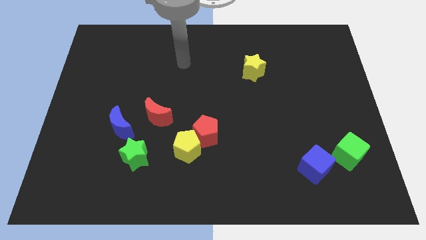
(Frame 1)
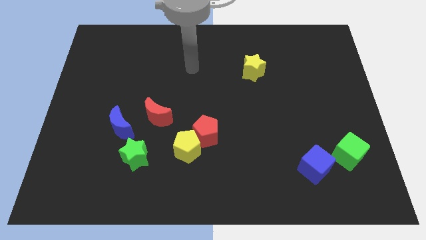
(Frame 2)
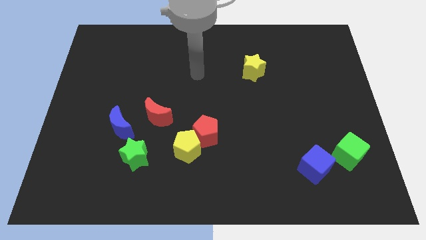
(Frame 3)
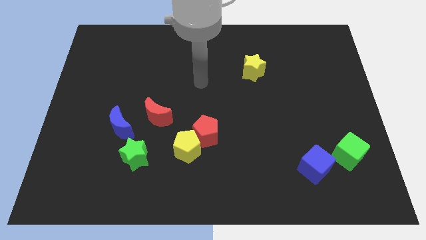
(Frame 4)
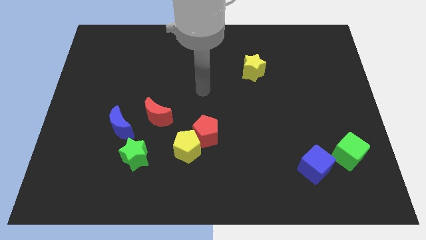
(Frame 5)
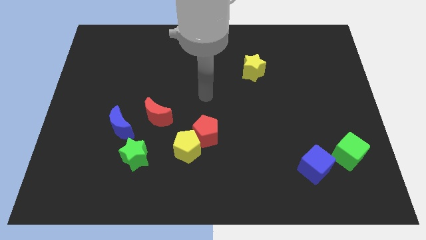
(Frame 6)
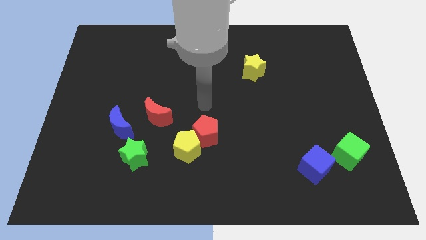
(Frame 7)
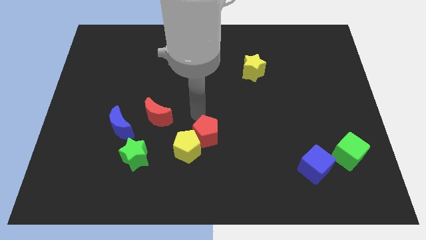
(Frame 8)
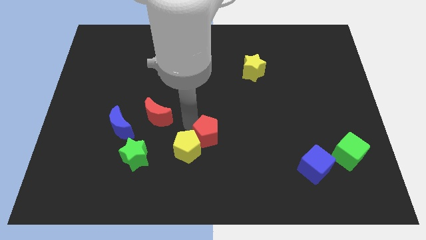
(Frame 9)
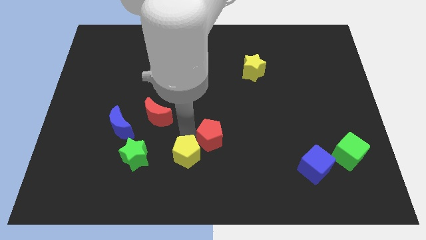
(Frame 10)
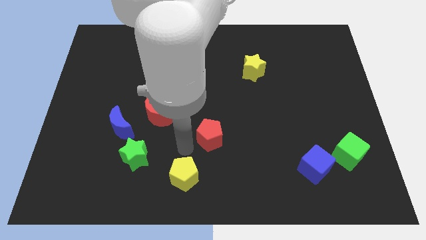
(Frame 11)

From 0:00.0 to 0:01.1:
separate the red pentagon from the yellow pentagon

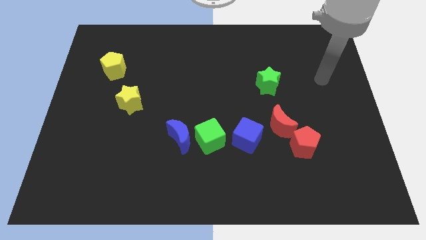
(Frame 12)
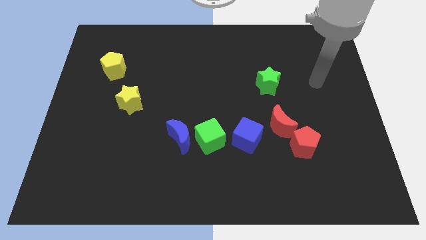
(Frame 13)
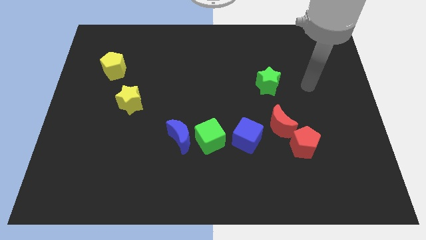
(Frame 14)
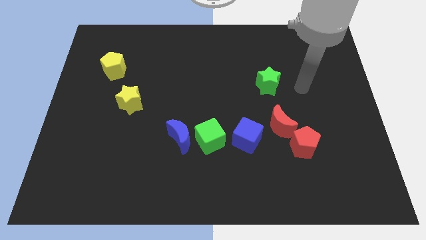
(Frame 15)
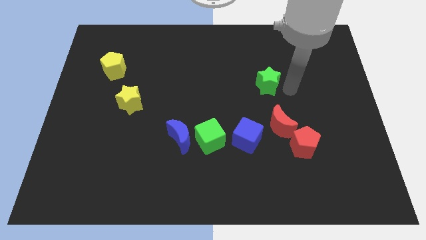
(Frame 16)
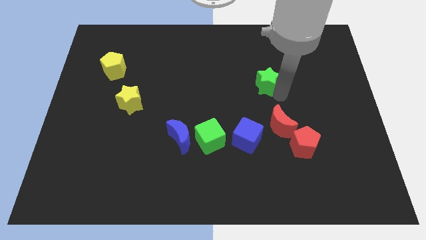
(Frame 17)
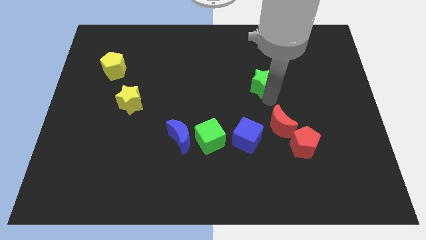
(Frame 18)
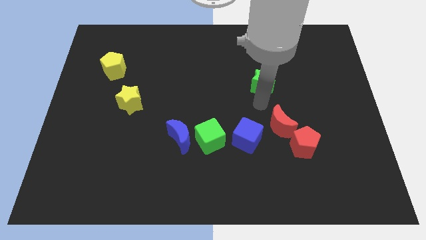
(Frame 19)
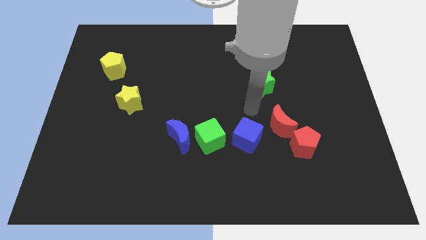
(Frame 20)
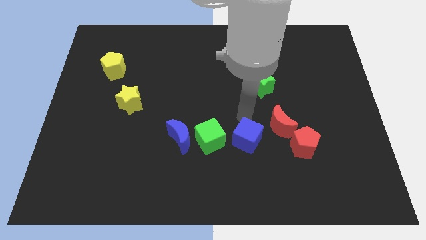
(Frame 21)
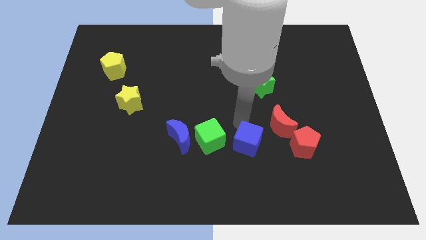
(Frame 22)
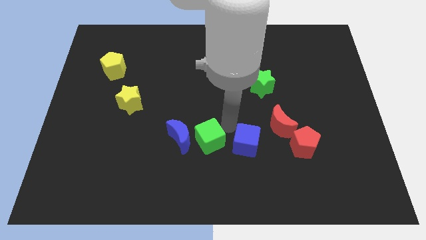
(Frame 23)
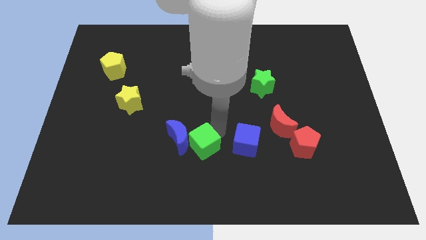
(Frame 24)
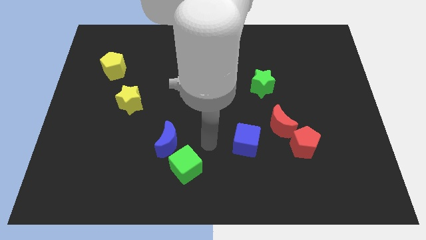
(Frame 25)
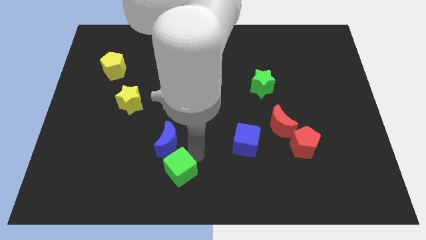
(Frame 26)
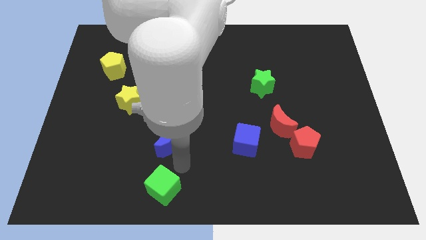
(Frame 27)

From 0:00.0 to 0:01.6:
pull the blue moon apart from the green cube

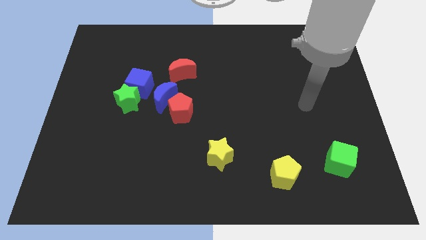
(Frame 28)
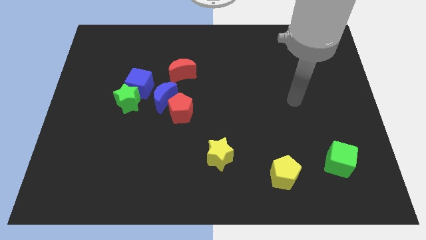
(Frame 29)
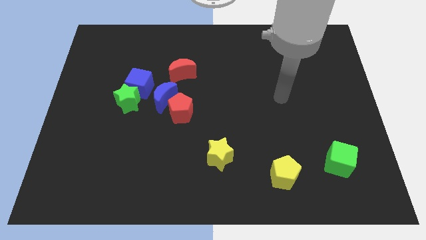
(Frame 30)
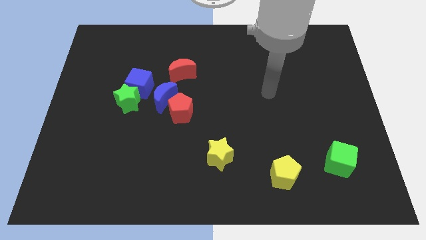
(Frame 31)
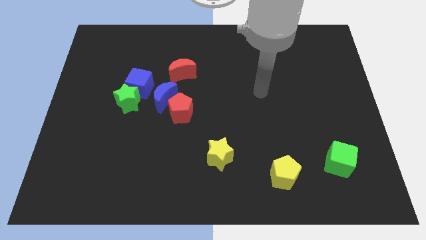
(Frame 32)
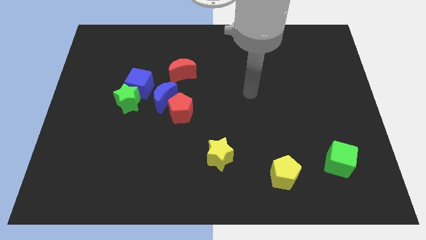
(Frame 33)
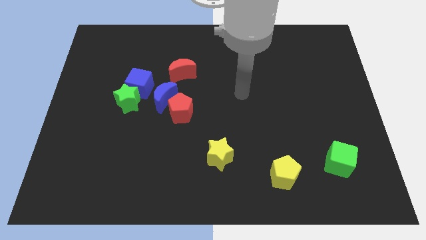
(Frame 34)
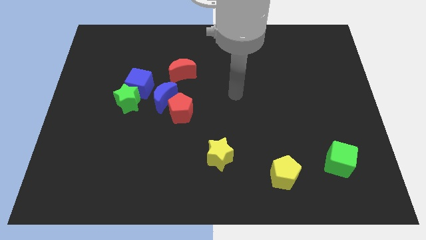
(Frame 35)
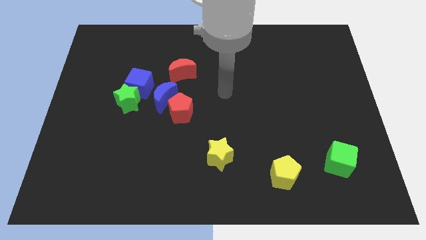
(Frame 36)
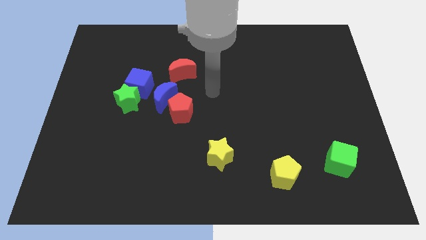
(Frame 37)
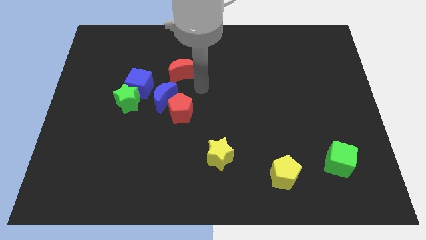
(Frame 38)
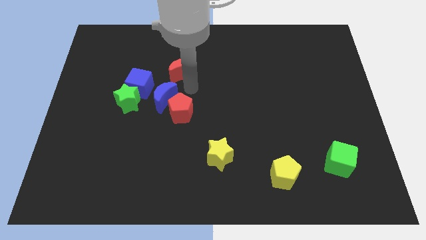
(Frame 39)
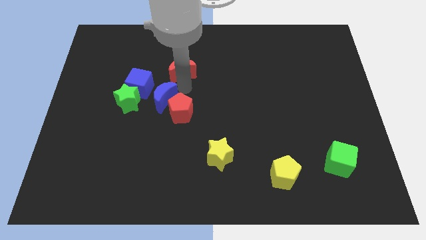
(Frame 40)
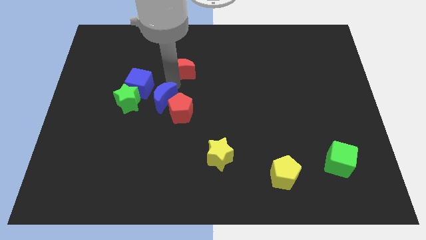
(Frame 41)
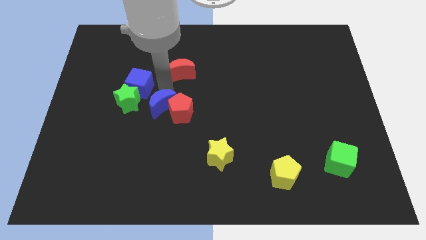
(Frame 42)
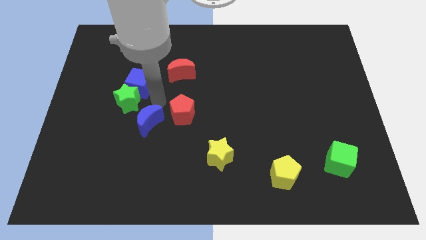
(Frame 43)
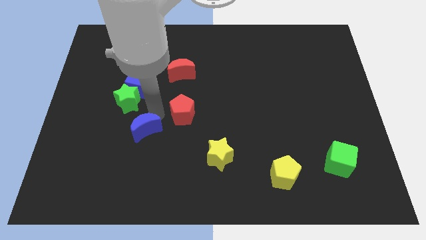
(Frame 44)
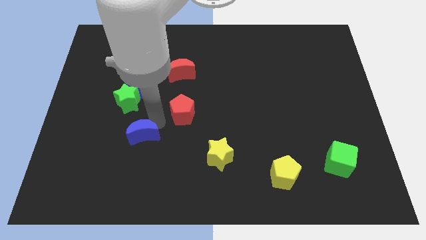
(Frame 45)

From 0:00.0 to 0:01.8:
separate the red pentagon from the blue moon

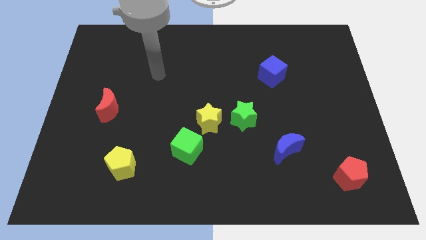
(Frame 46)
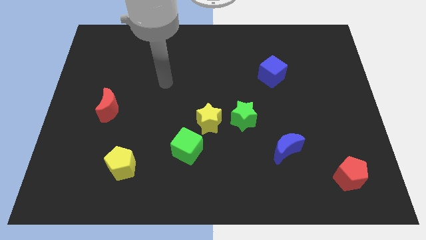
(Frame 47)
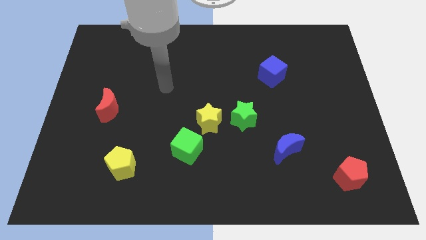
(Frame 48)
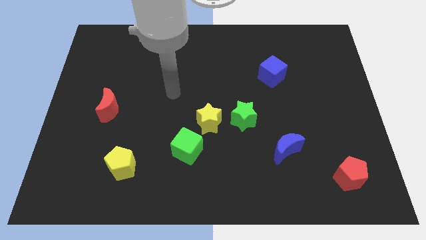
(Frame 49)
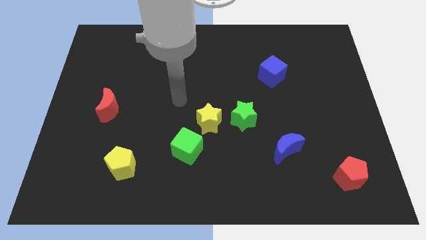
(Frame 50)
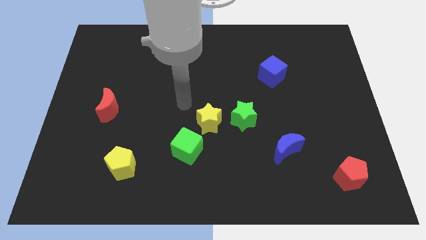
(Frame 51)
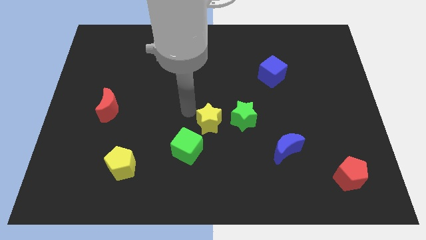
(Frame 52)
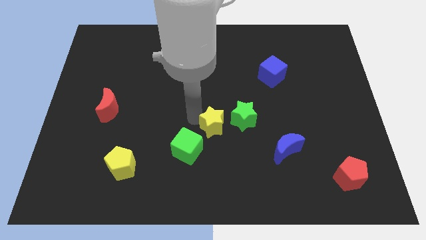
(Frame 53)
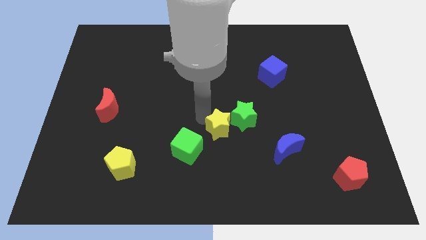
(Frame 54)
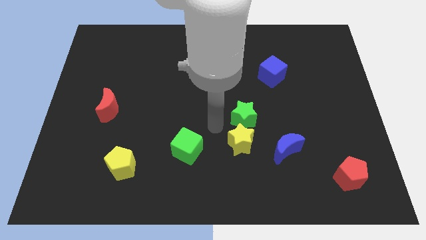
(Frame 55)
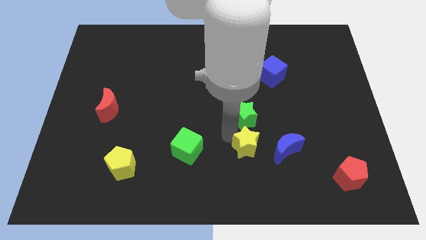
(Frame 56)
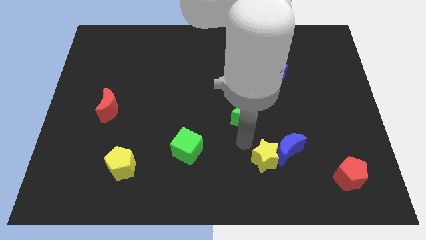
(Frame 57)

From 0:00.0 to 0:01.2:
move the green star away from the yellow star

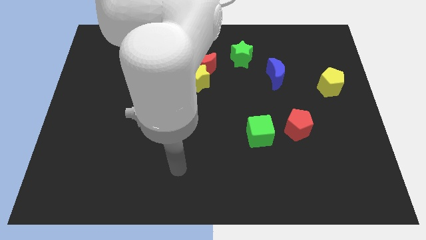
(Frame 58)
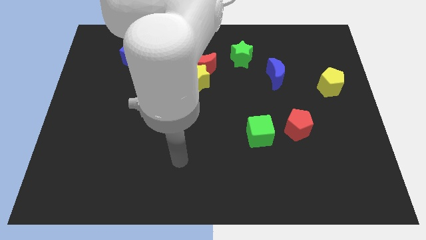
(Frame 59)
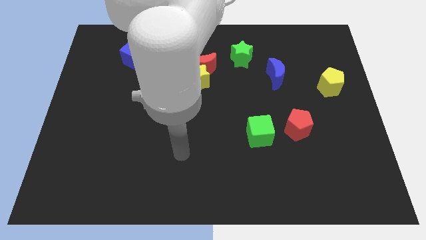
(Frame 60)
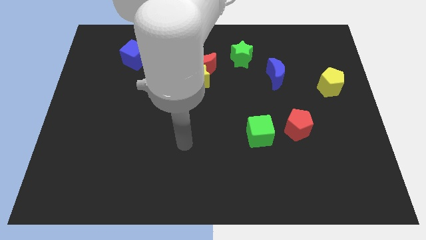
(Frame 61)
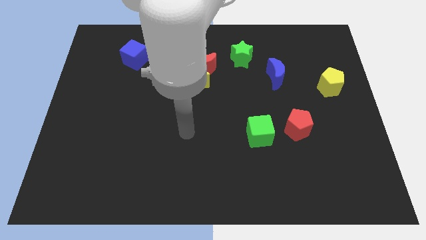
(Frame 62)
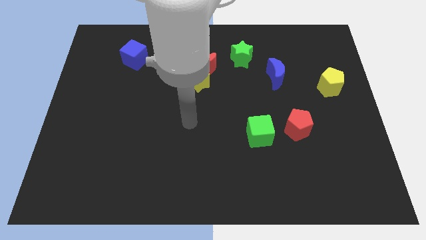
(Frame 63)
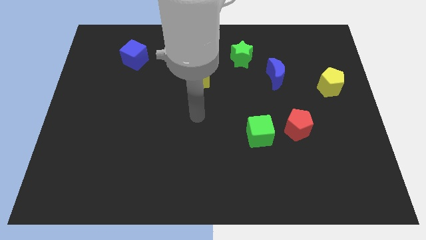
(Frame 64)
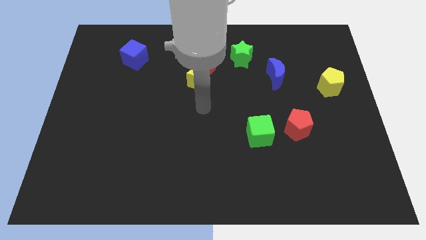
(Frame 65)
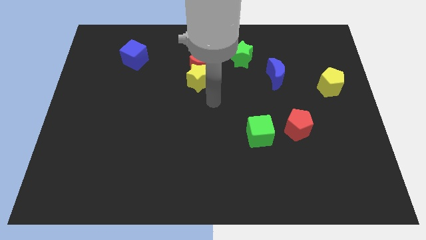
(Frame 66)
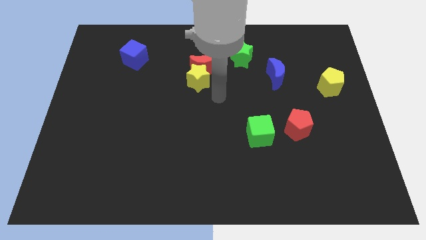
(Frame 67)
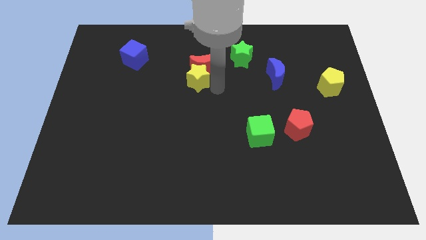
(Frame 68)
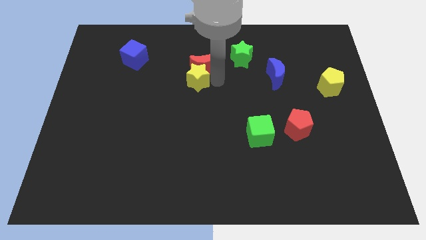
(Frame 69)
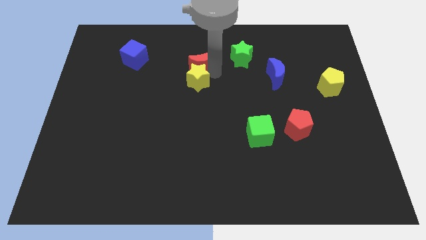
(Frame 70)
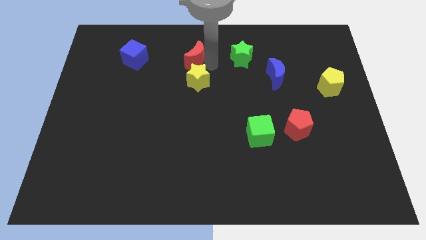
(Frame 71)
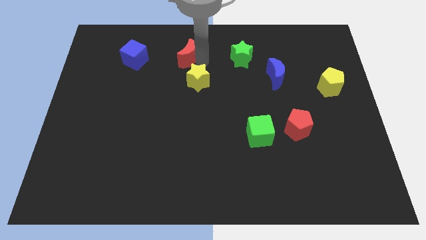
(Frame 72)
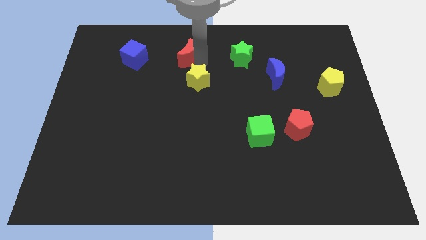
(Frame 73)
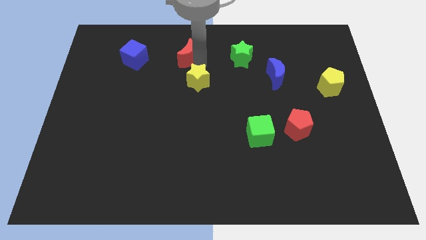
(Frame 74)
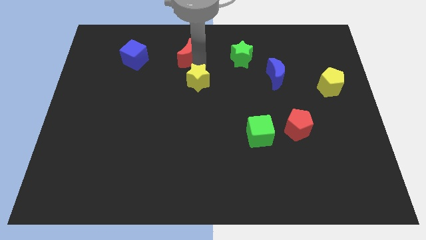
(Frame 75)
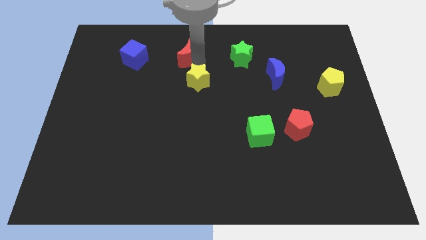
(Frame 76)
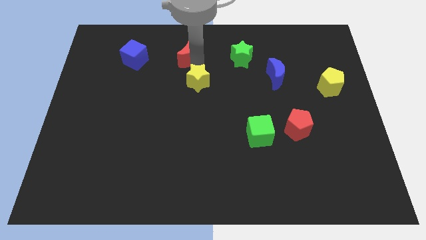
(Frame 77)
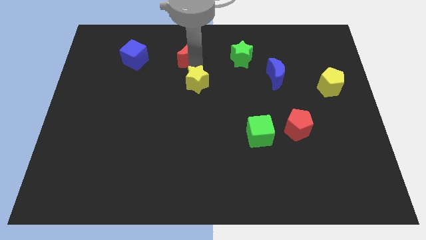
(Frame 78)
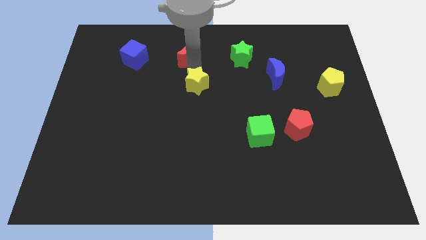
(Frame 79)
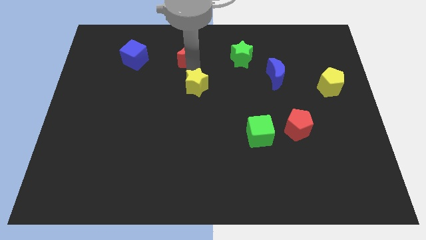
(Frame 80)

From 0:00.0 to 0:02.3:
move the yellow star away from the red moon

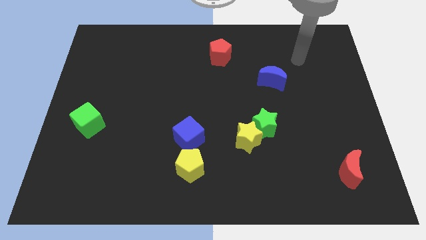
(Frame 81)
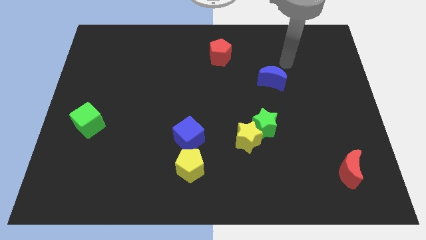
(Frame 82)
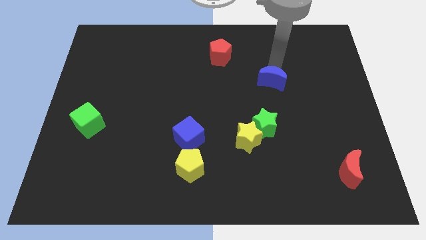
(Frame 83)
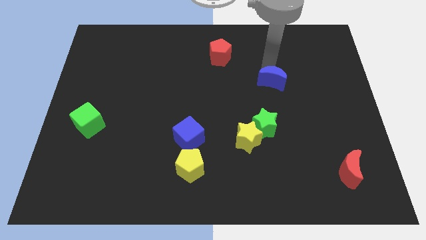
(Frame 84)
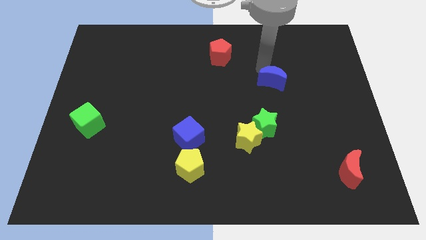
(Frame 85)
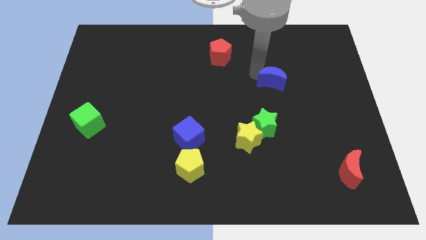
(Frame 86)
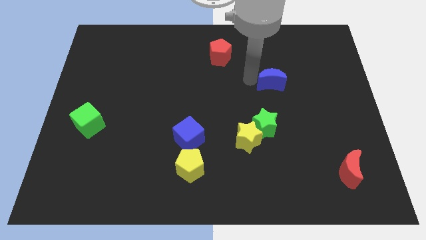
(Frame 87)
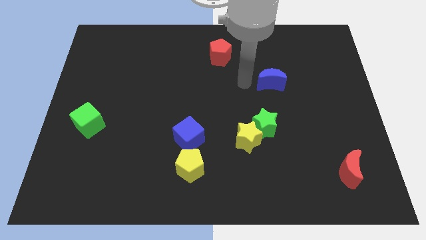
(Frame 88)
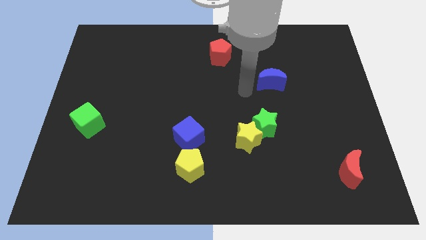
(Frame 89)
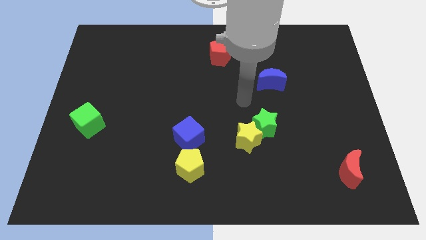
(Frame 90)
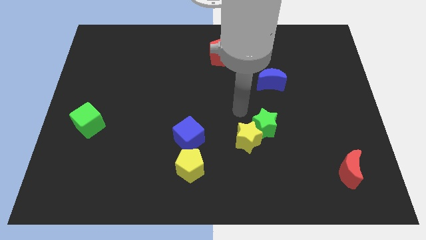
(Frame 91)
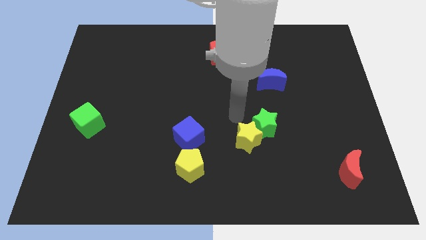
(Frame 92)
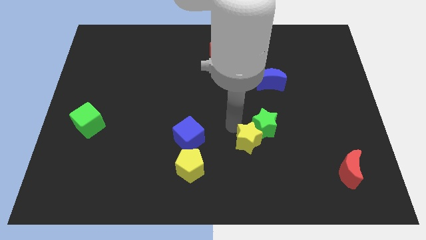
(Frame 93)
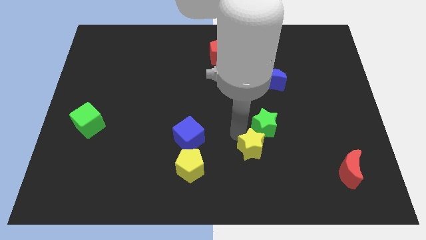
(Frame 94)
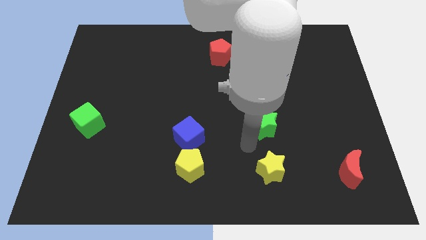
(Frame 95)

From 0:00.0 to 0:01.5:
pull the green star apart from the yellow star
